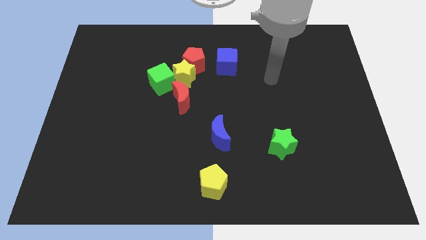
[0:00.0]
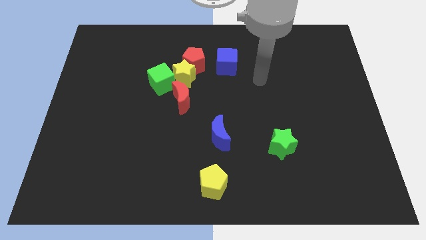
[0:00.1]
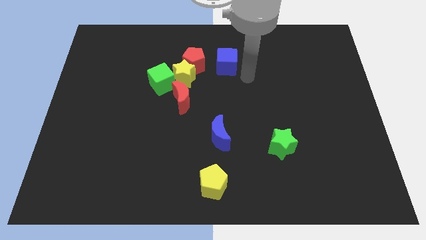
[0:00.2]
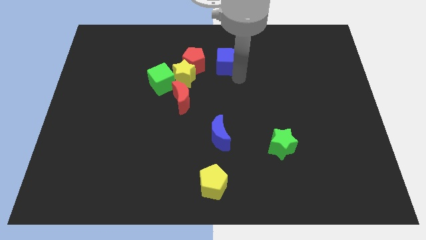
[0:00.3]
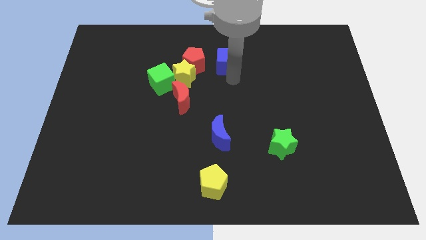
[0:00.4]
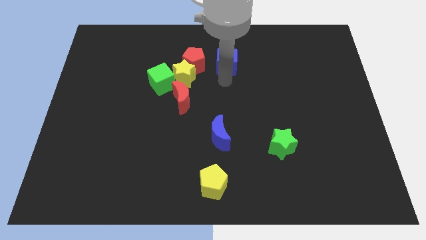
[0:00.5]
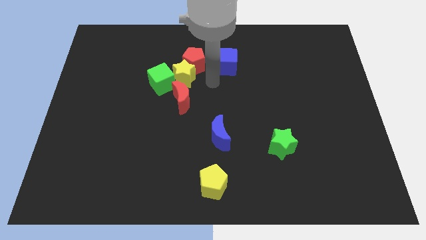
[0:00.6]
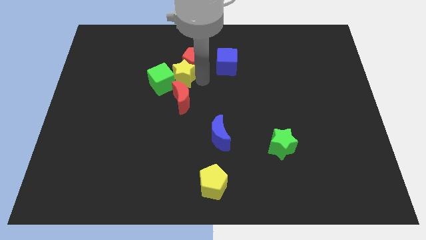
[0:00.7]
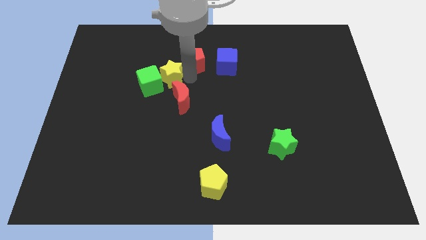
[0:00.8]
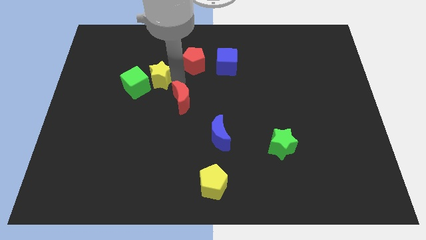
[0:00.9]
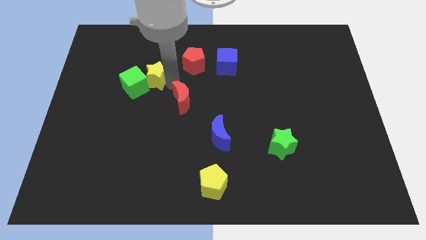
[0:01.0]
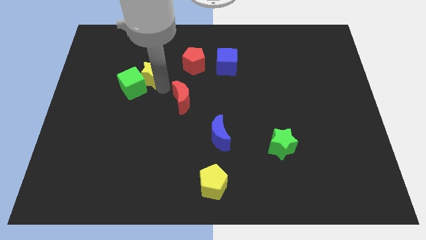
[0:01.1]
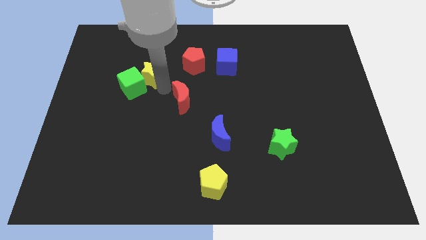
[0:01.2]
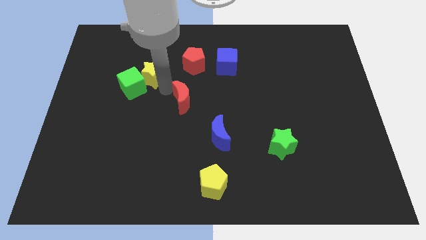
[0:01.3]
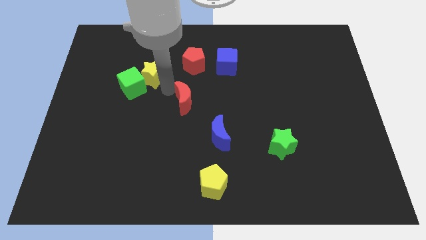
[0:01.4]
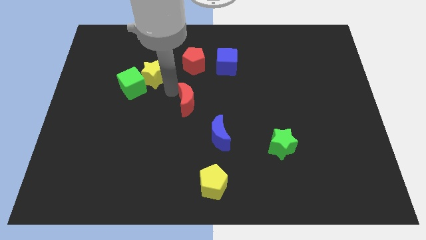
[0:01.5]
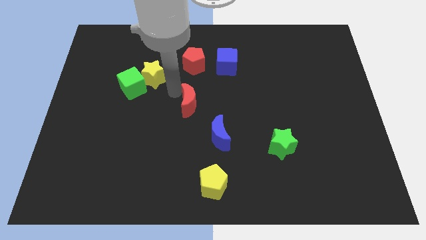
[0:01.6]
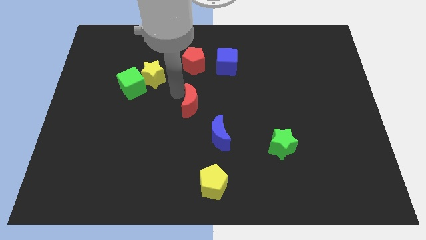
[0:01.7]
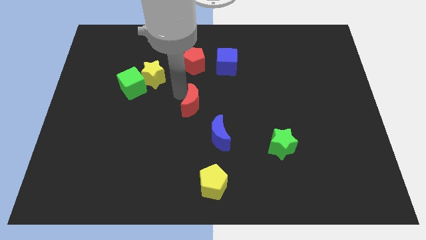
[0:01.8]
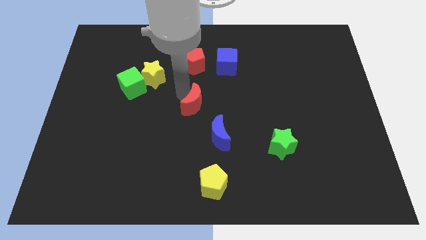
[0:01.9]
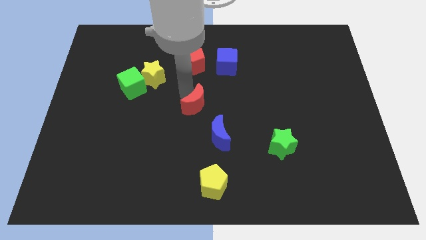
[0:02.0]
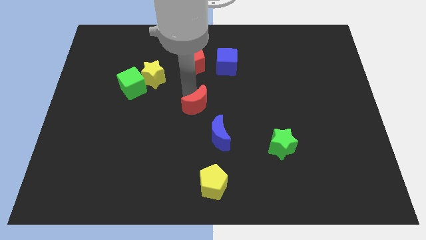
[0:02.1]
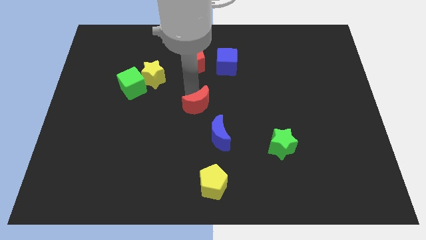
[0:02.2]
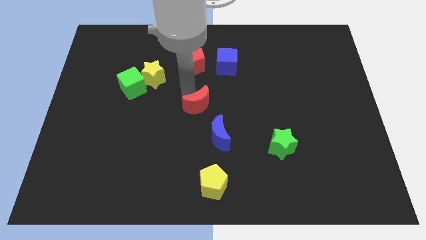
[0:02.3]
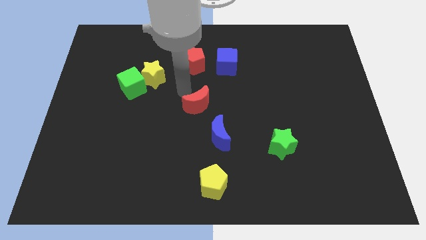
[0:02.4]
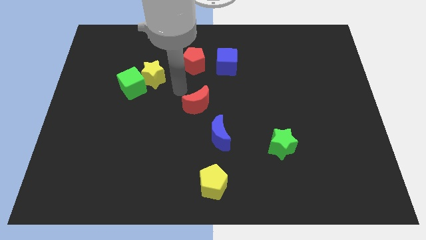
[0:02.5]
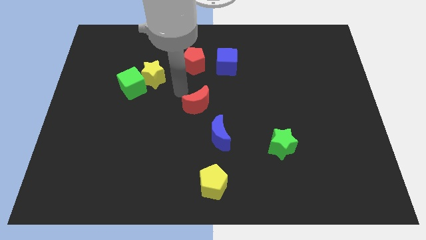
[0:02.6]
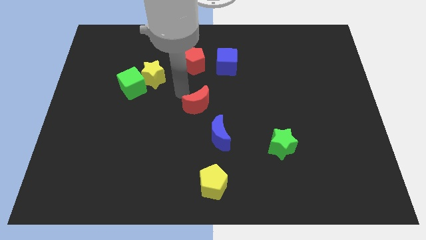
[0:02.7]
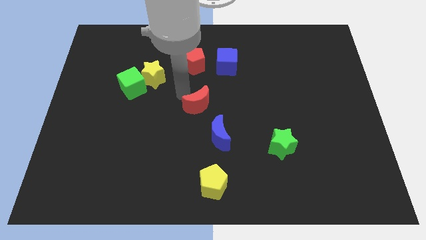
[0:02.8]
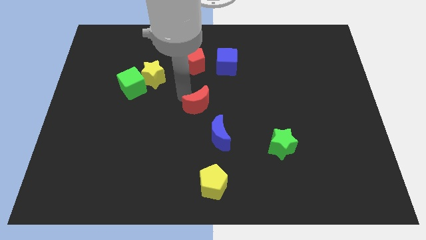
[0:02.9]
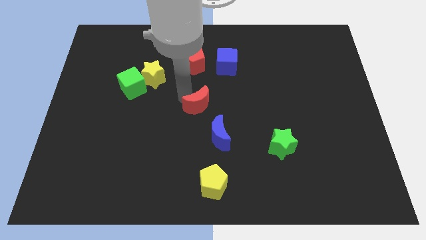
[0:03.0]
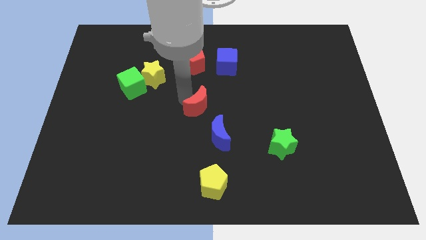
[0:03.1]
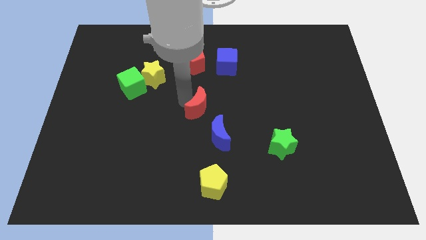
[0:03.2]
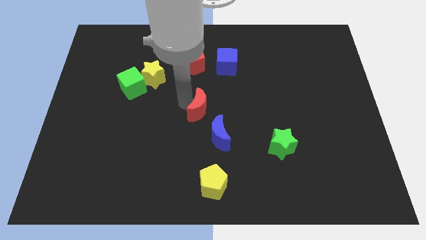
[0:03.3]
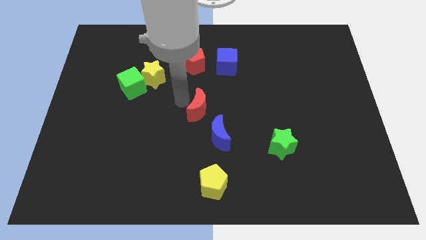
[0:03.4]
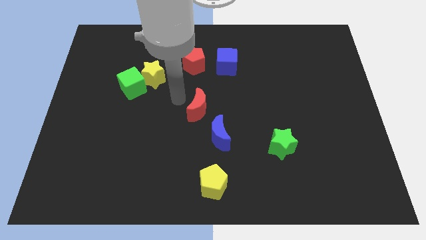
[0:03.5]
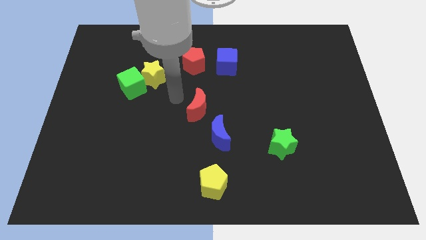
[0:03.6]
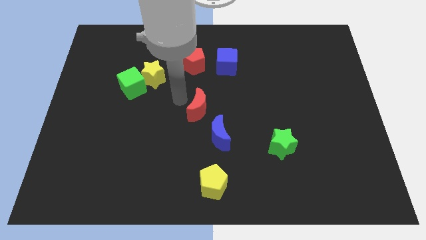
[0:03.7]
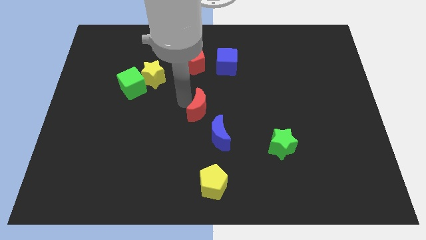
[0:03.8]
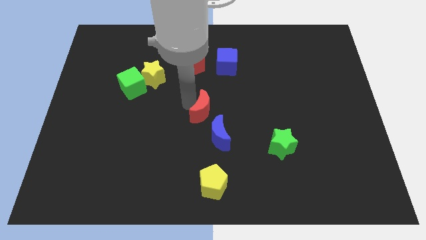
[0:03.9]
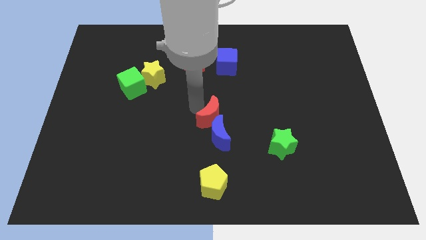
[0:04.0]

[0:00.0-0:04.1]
slide the red moon diagonally downwards and to the right somewhat

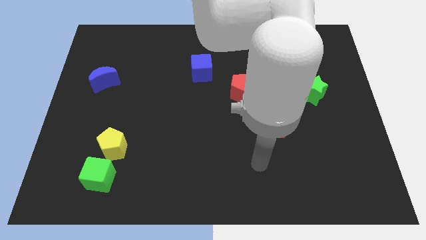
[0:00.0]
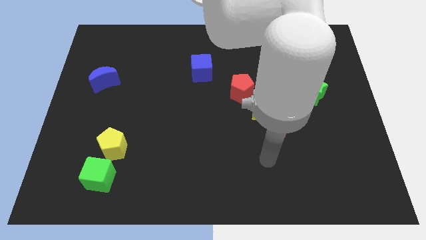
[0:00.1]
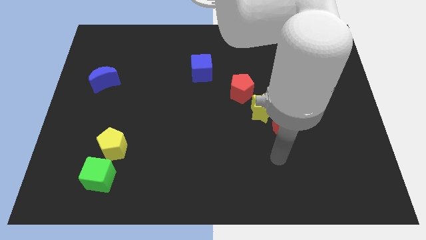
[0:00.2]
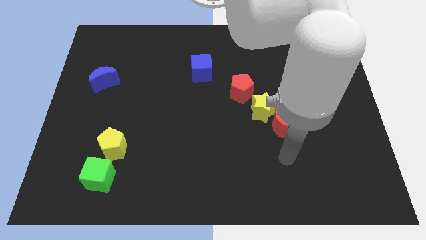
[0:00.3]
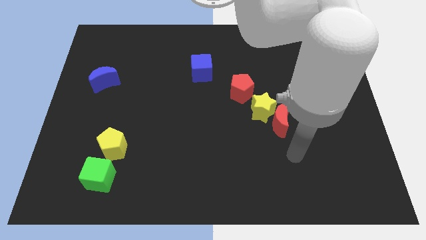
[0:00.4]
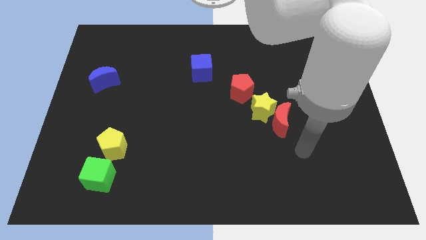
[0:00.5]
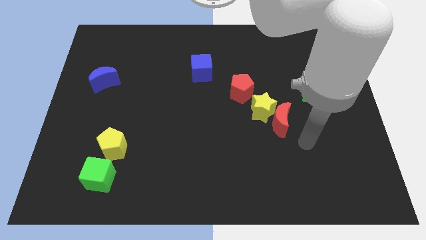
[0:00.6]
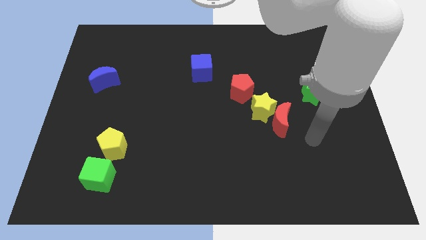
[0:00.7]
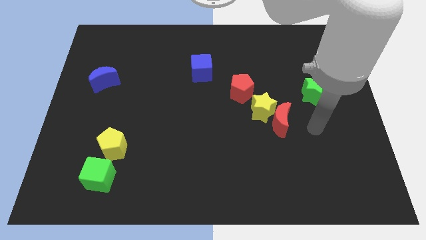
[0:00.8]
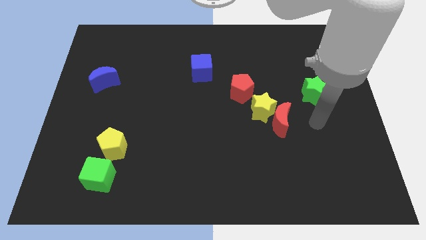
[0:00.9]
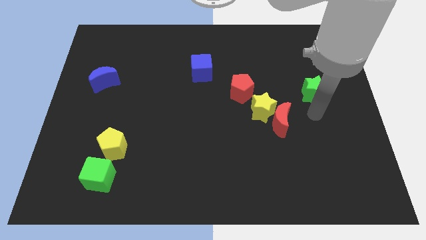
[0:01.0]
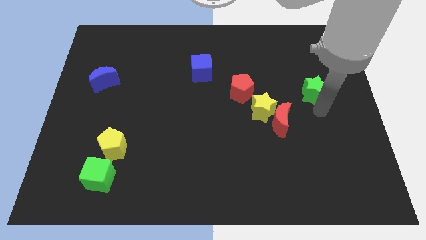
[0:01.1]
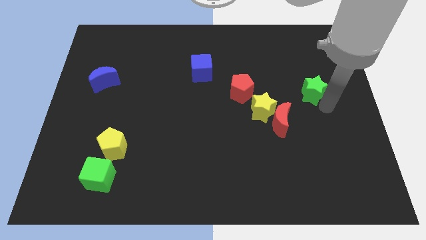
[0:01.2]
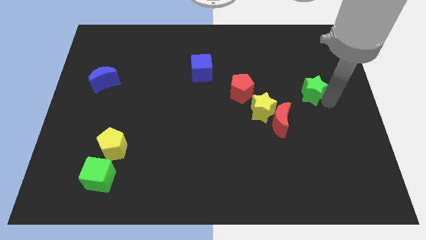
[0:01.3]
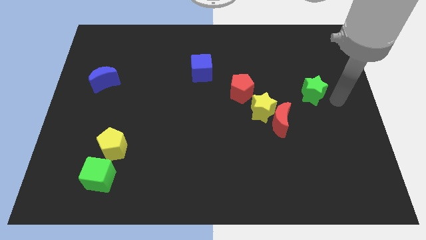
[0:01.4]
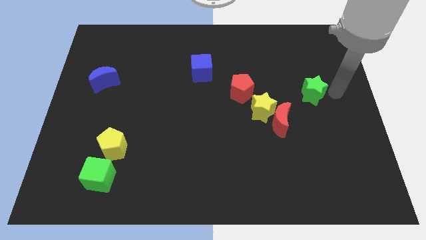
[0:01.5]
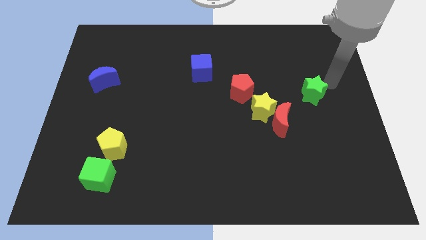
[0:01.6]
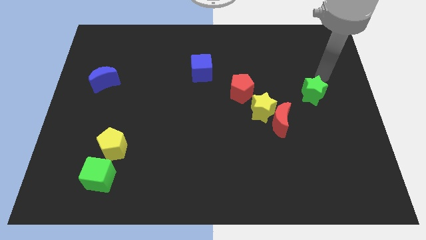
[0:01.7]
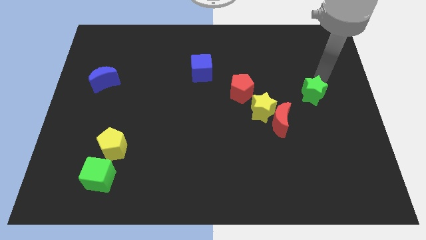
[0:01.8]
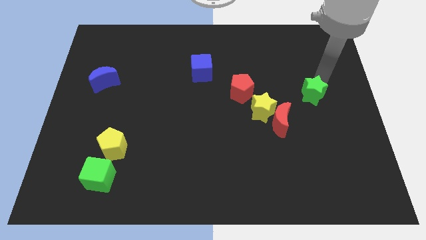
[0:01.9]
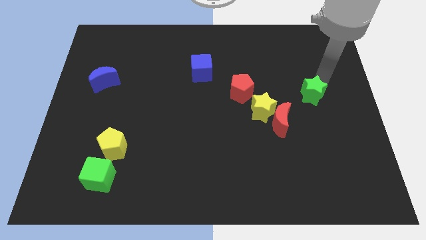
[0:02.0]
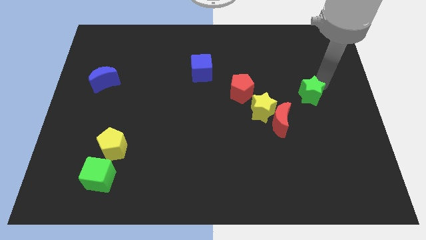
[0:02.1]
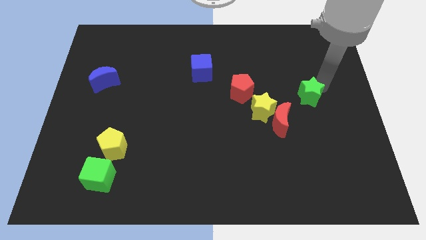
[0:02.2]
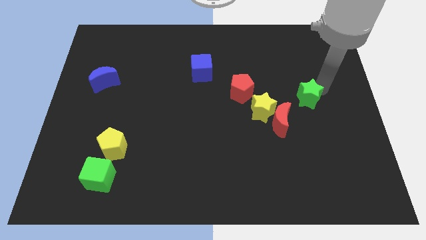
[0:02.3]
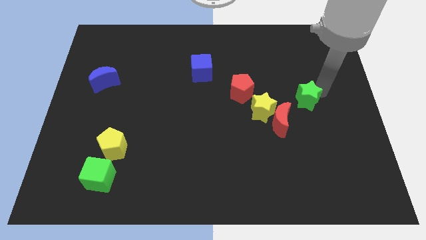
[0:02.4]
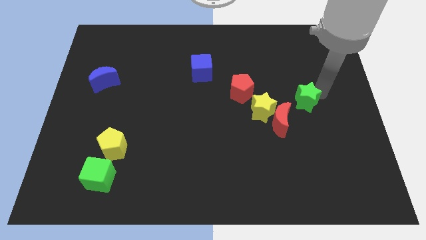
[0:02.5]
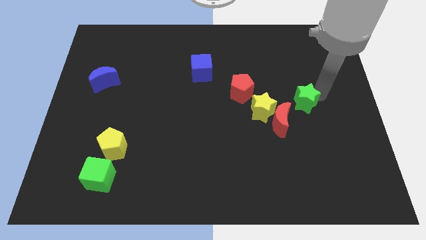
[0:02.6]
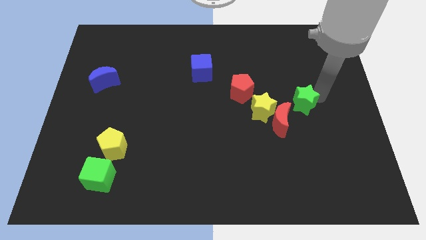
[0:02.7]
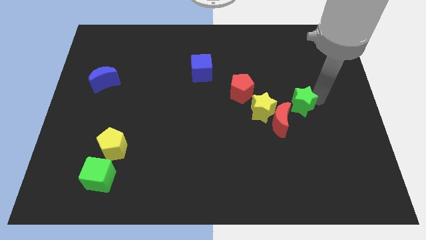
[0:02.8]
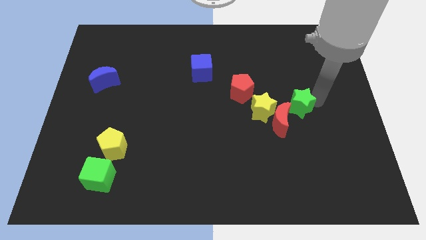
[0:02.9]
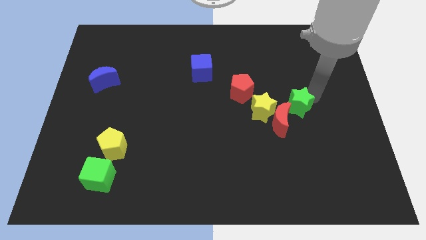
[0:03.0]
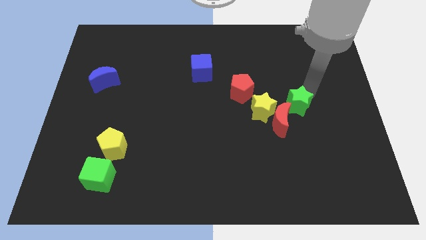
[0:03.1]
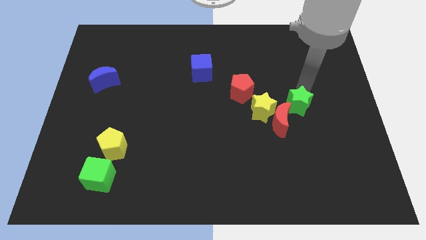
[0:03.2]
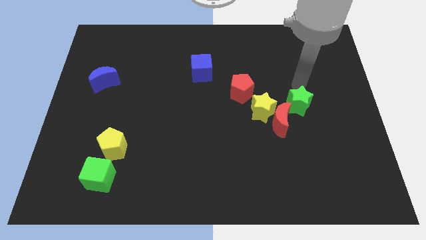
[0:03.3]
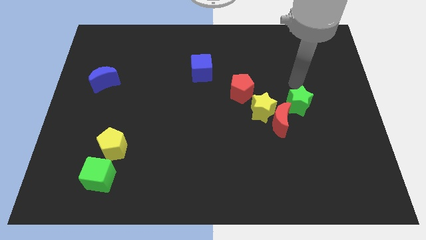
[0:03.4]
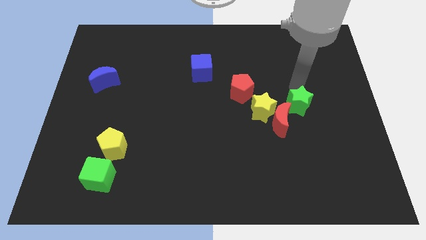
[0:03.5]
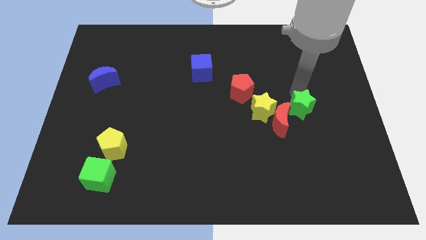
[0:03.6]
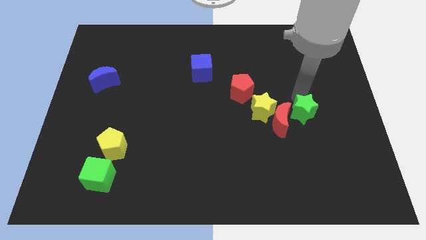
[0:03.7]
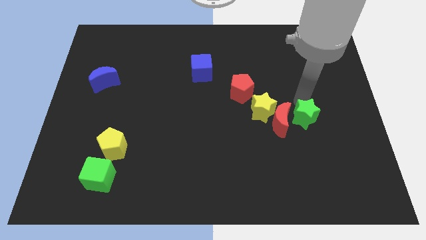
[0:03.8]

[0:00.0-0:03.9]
slightly push the green star downwards and then left

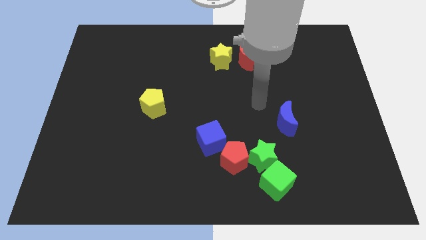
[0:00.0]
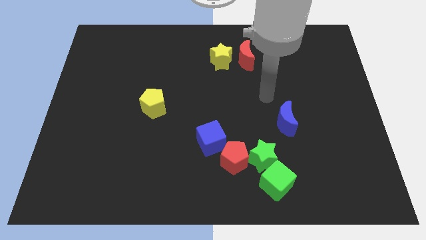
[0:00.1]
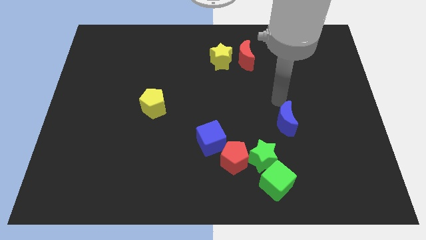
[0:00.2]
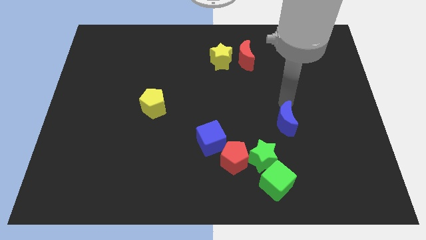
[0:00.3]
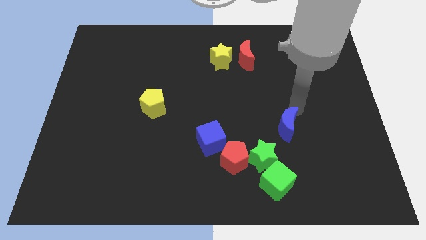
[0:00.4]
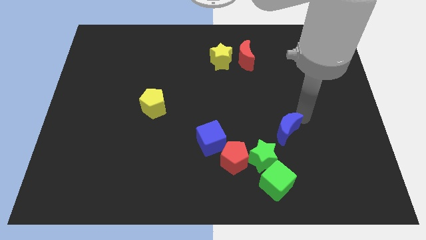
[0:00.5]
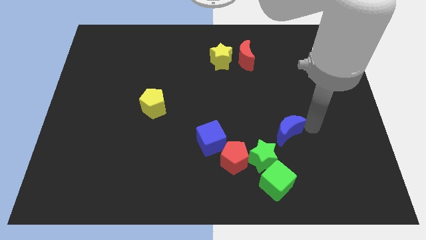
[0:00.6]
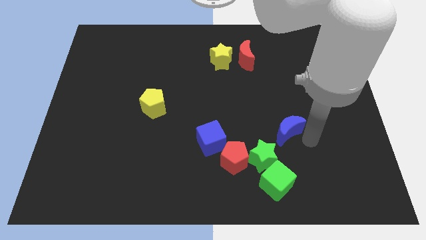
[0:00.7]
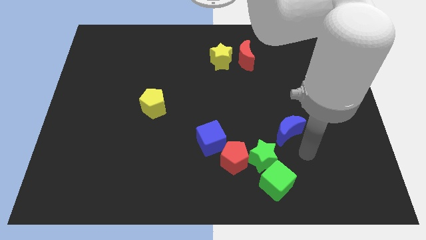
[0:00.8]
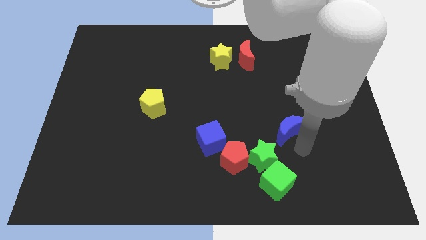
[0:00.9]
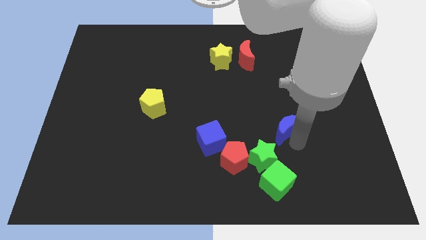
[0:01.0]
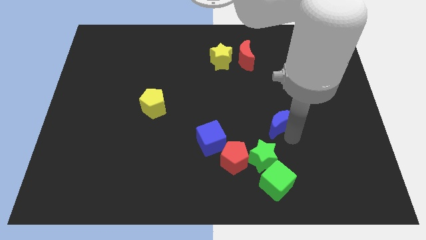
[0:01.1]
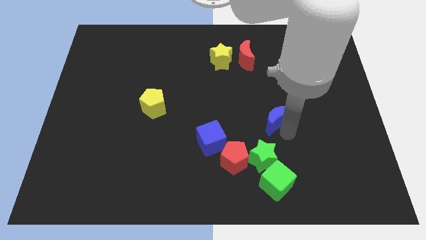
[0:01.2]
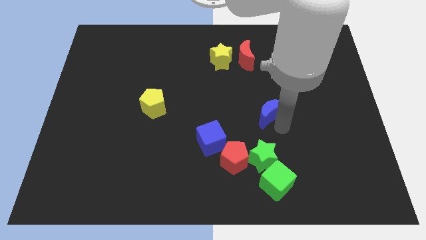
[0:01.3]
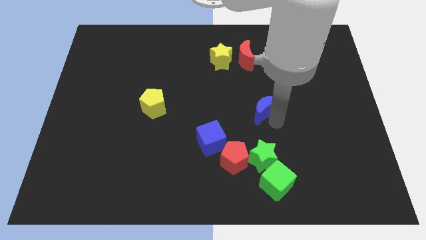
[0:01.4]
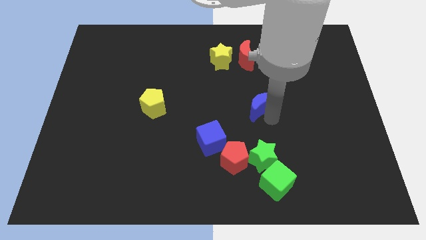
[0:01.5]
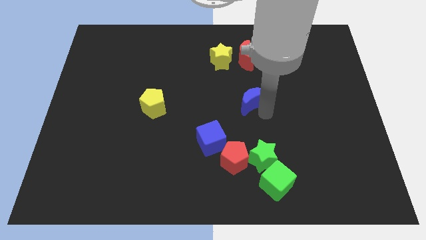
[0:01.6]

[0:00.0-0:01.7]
move the blue moon a bit upwards and to the left diagonally
